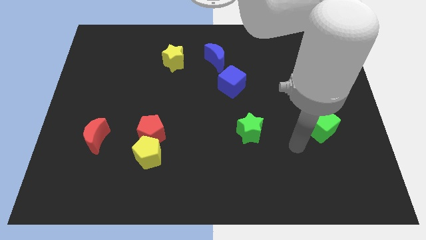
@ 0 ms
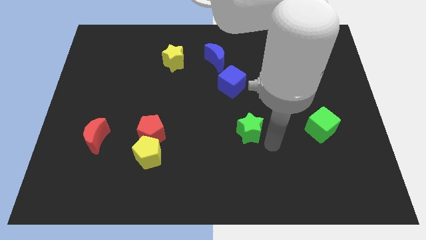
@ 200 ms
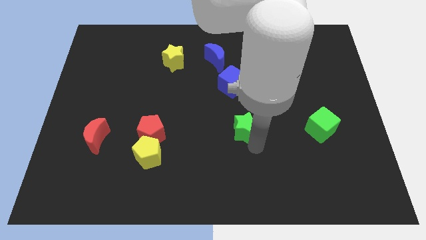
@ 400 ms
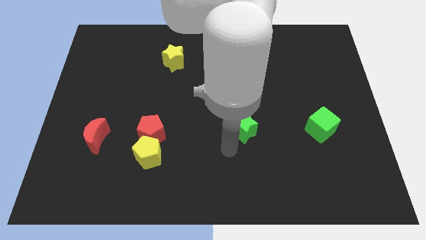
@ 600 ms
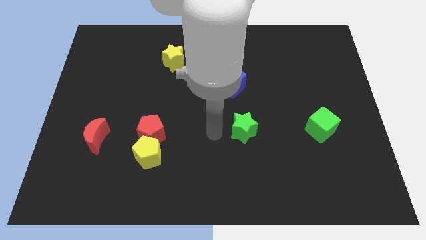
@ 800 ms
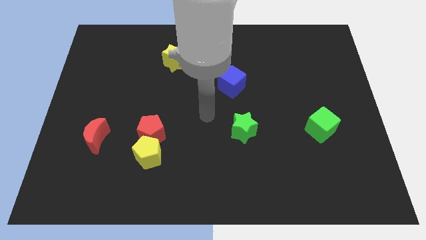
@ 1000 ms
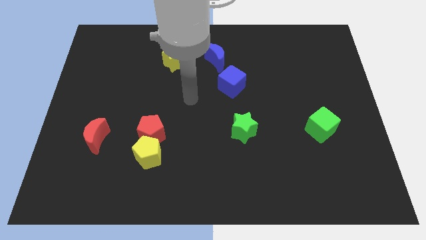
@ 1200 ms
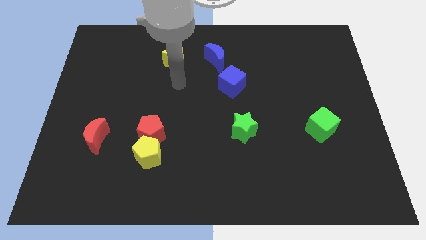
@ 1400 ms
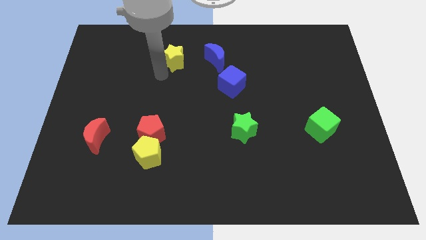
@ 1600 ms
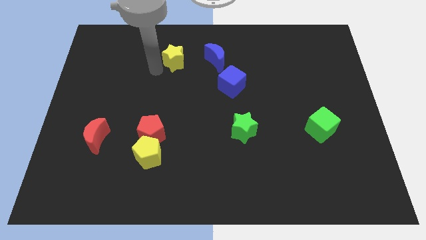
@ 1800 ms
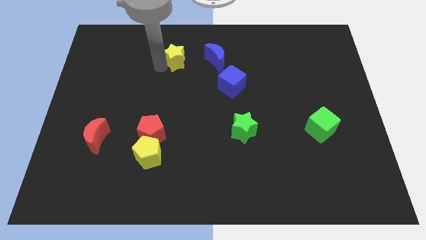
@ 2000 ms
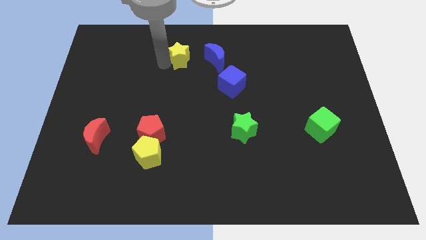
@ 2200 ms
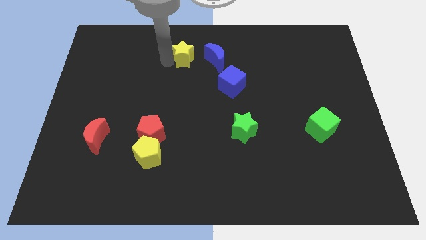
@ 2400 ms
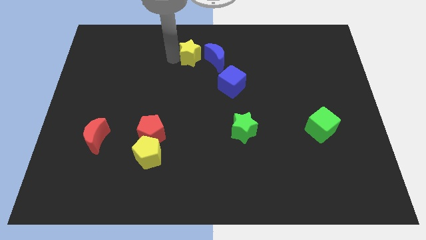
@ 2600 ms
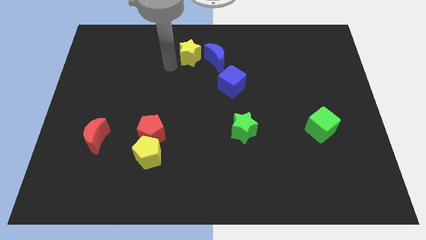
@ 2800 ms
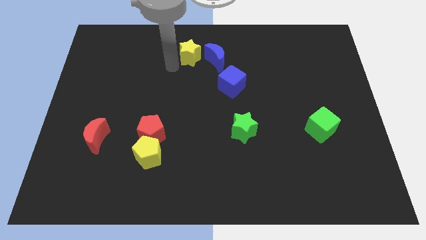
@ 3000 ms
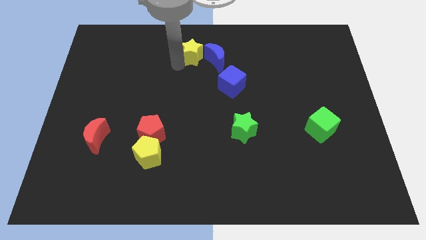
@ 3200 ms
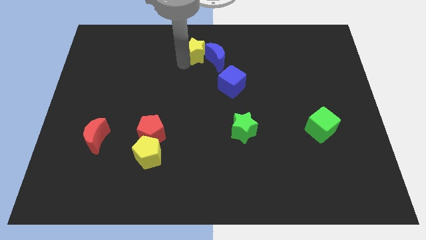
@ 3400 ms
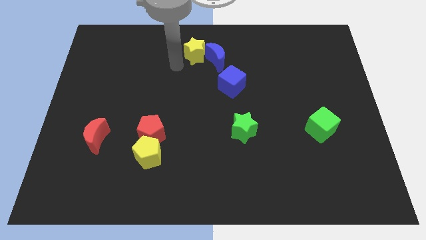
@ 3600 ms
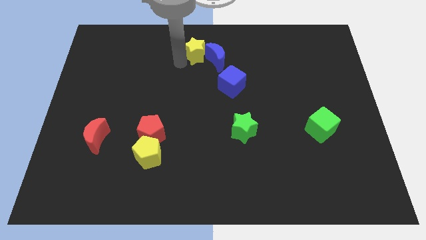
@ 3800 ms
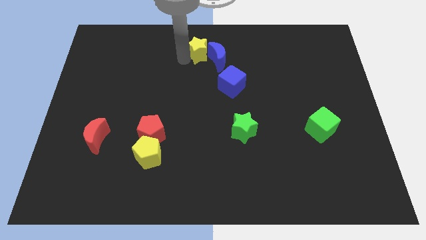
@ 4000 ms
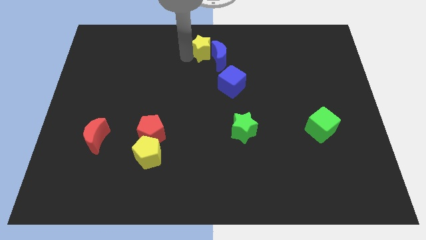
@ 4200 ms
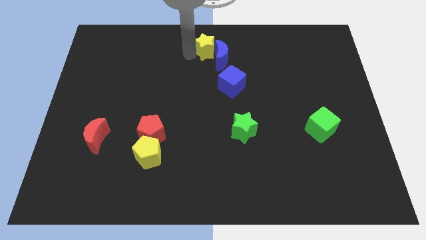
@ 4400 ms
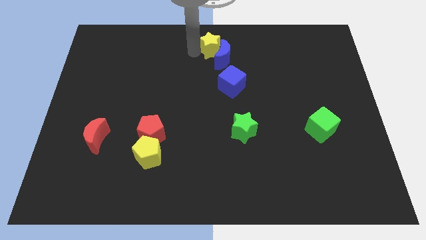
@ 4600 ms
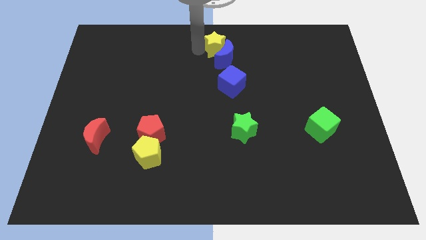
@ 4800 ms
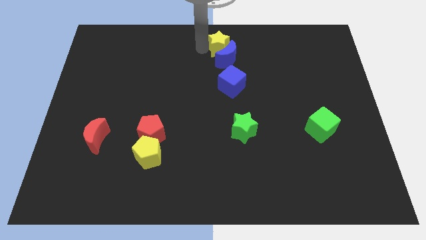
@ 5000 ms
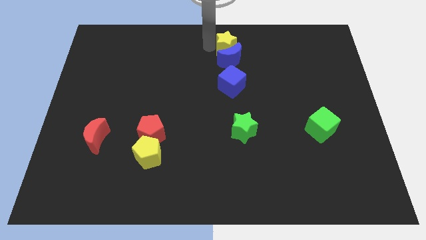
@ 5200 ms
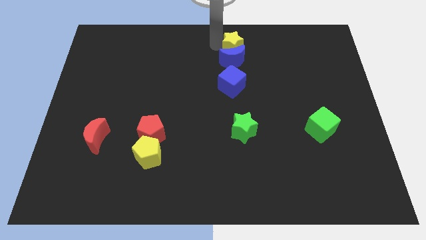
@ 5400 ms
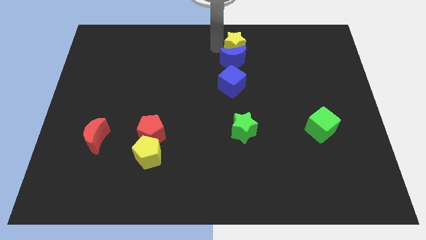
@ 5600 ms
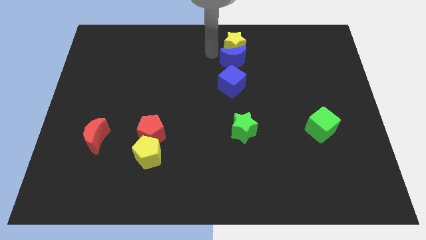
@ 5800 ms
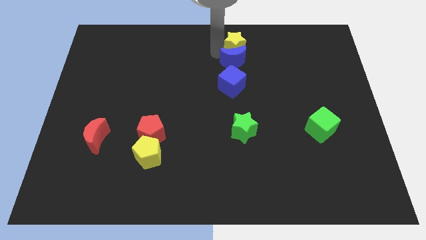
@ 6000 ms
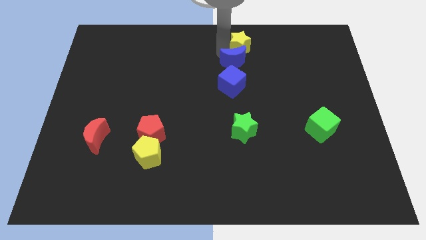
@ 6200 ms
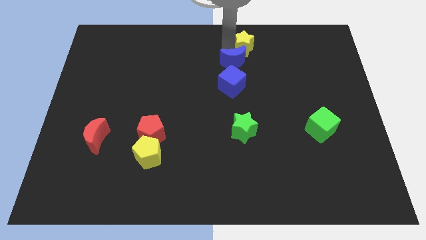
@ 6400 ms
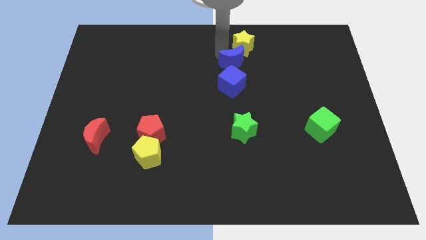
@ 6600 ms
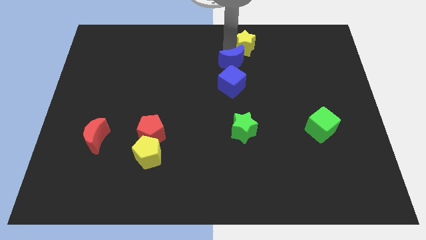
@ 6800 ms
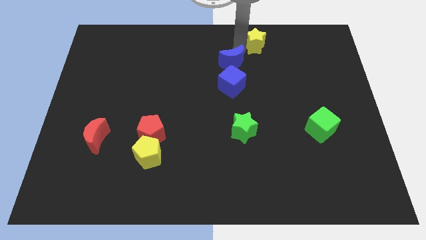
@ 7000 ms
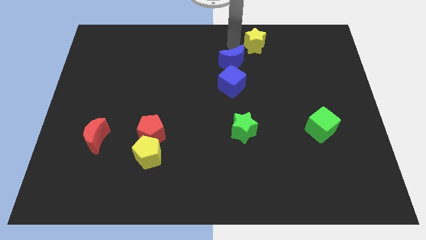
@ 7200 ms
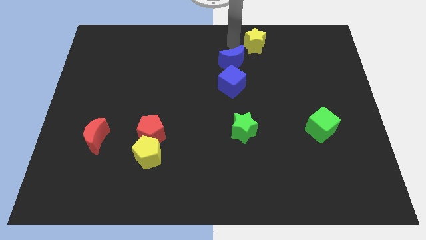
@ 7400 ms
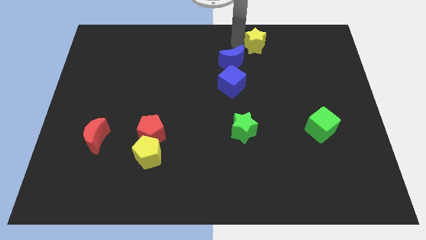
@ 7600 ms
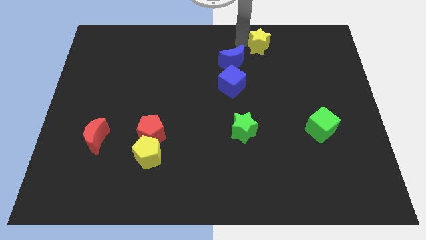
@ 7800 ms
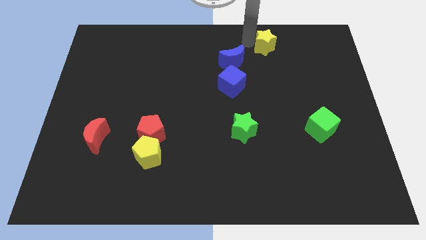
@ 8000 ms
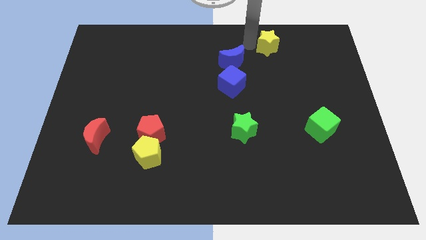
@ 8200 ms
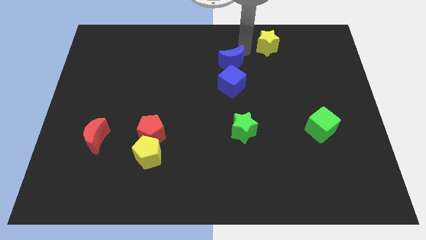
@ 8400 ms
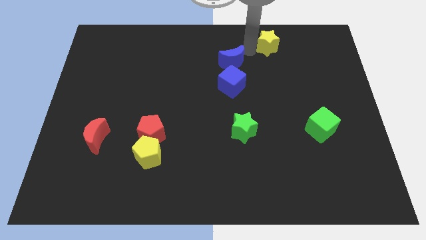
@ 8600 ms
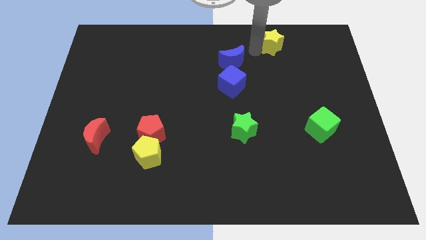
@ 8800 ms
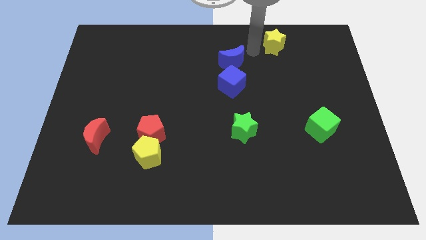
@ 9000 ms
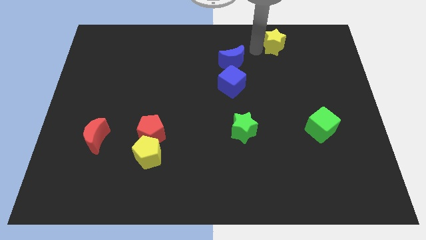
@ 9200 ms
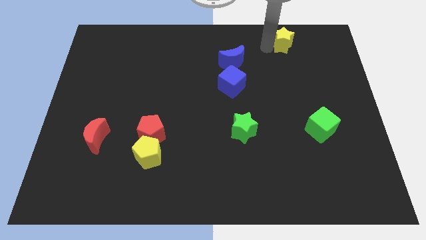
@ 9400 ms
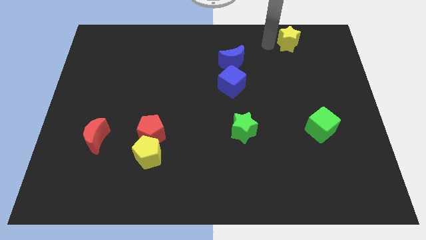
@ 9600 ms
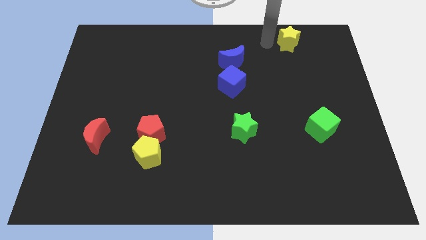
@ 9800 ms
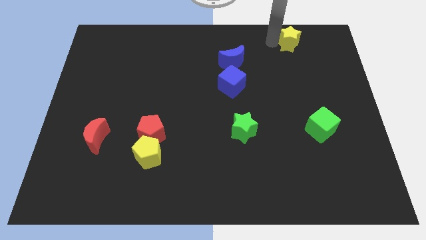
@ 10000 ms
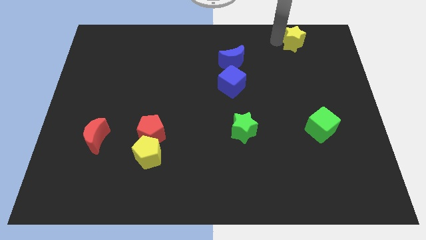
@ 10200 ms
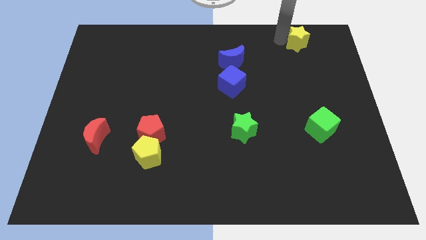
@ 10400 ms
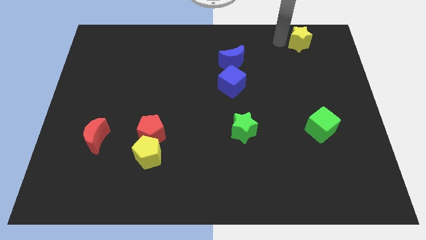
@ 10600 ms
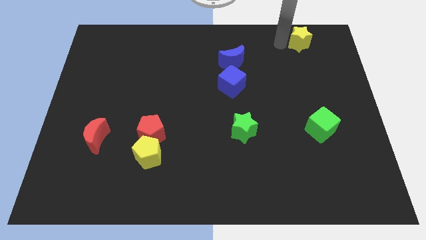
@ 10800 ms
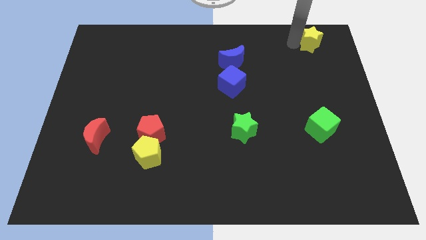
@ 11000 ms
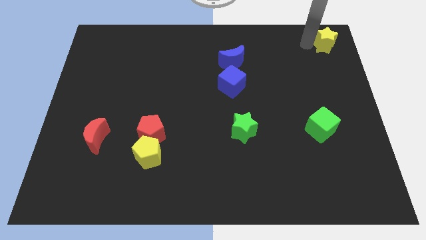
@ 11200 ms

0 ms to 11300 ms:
slide the yellow star to the top right
